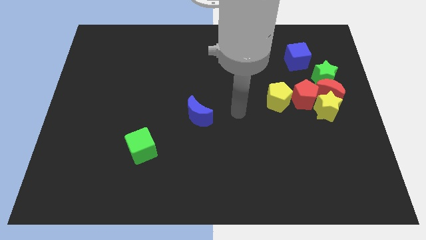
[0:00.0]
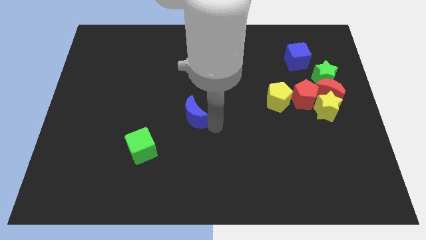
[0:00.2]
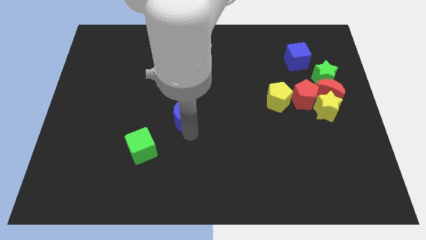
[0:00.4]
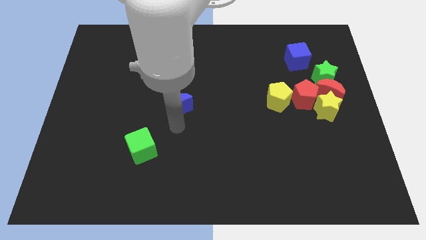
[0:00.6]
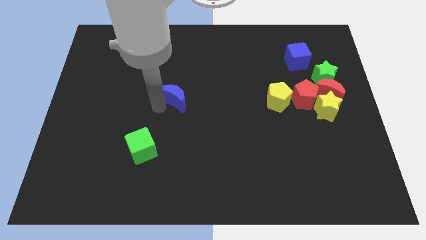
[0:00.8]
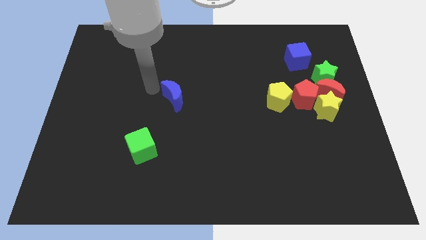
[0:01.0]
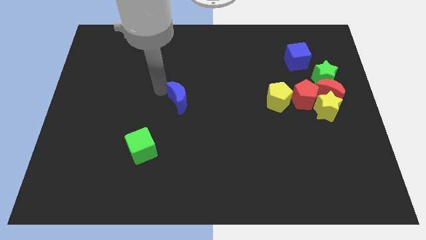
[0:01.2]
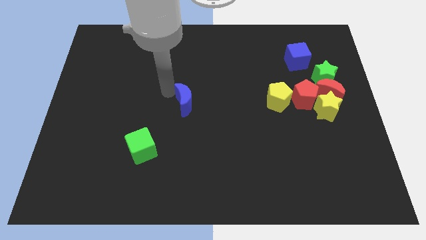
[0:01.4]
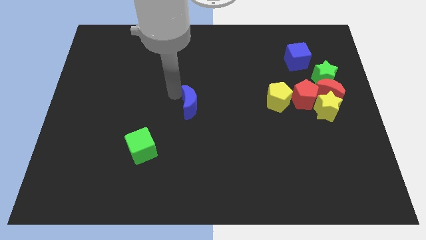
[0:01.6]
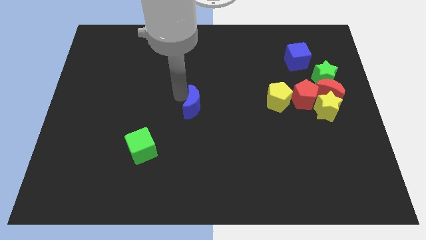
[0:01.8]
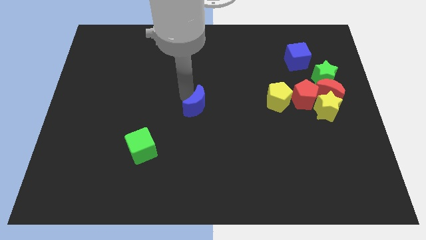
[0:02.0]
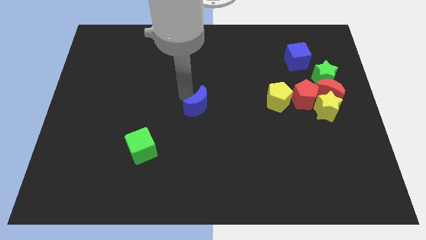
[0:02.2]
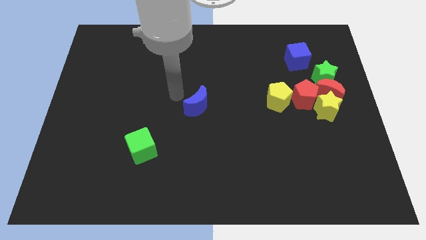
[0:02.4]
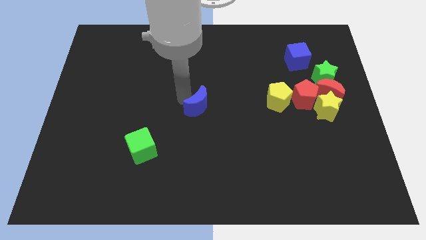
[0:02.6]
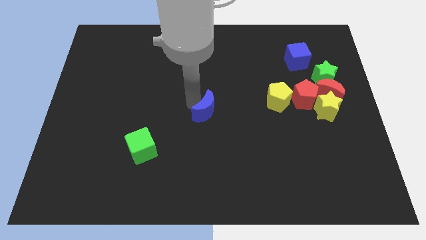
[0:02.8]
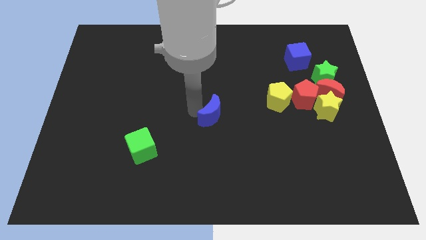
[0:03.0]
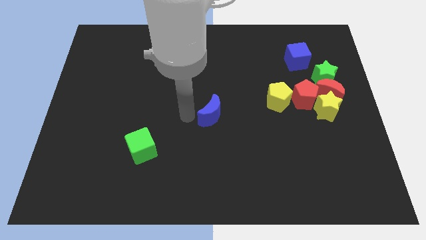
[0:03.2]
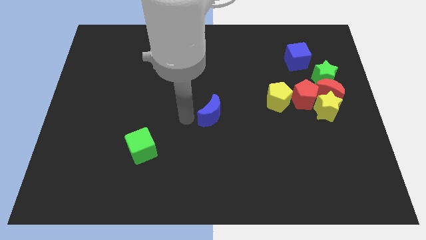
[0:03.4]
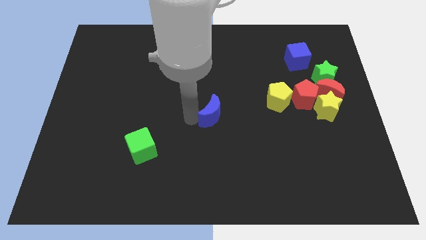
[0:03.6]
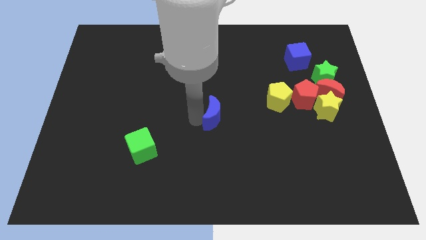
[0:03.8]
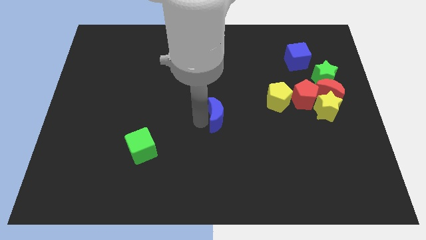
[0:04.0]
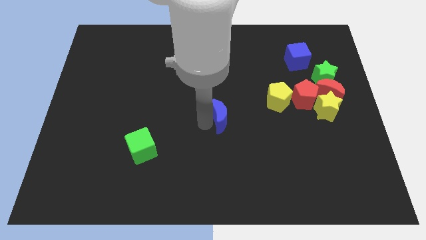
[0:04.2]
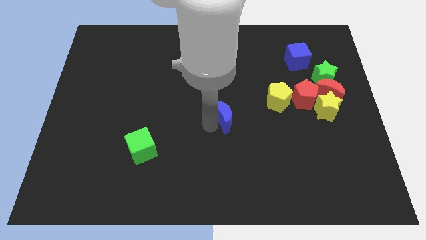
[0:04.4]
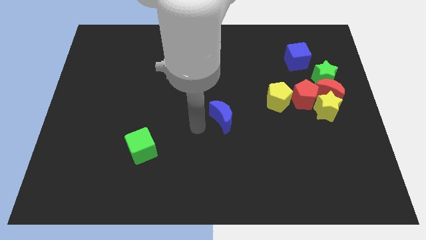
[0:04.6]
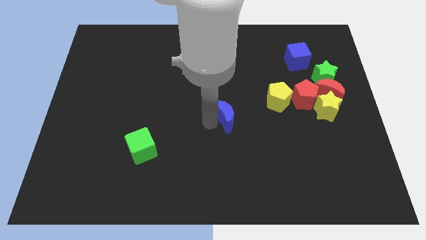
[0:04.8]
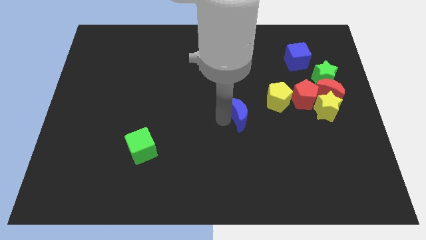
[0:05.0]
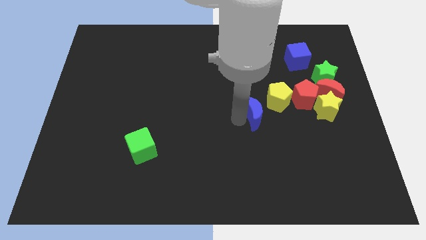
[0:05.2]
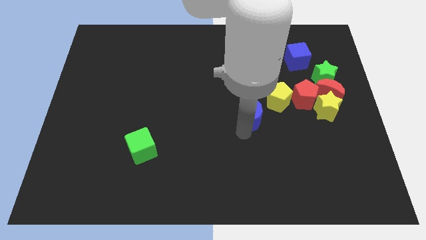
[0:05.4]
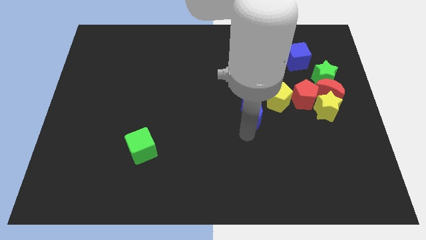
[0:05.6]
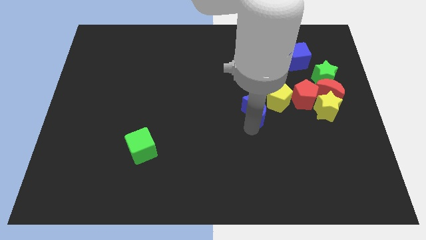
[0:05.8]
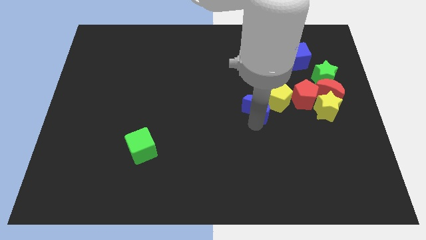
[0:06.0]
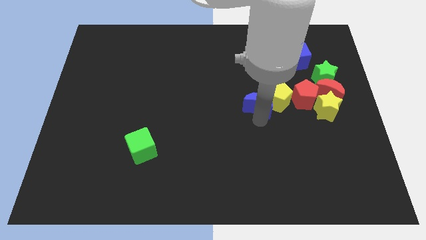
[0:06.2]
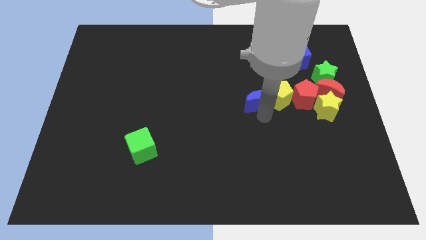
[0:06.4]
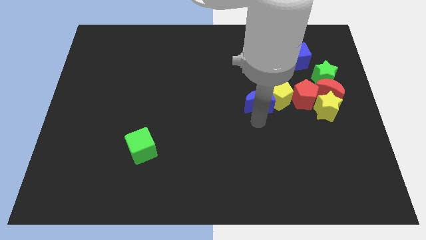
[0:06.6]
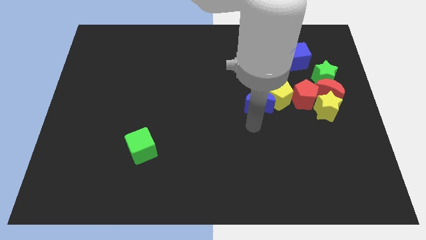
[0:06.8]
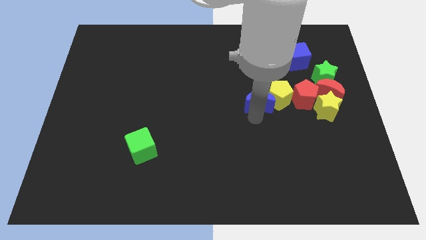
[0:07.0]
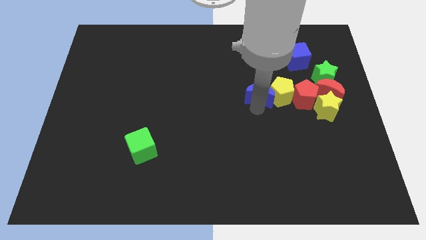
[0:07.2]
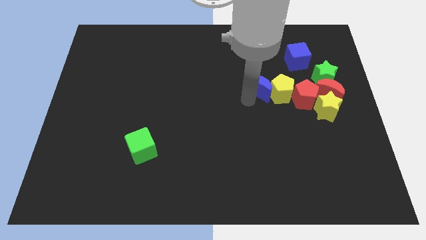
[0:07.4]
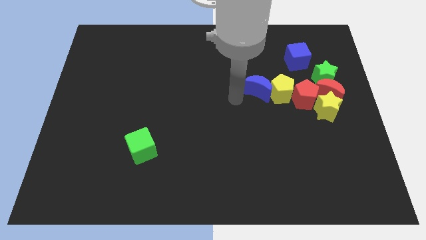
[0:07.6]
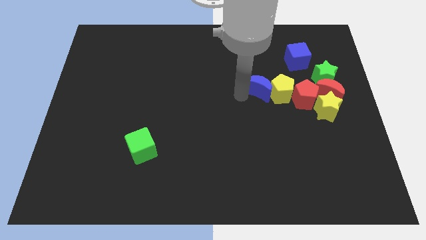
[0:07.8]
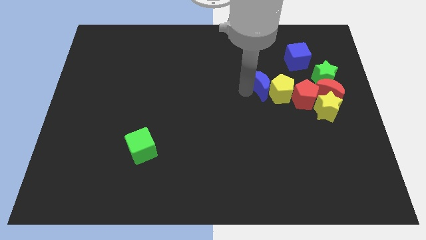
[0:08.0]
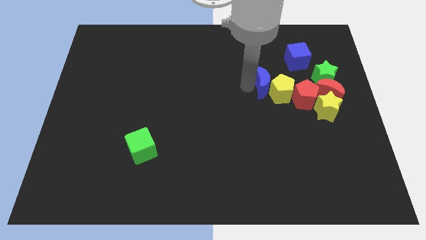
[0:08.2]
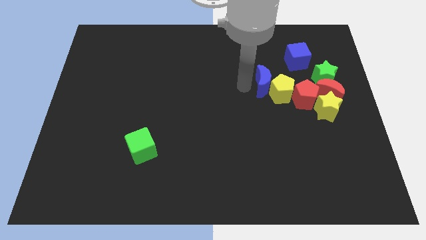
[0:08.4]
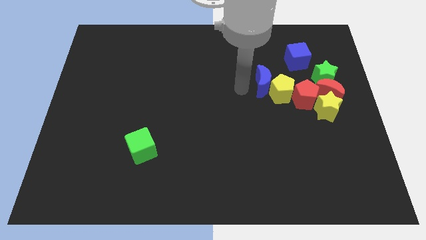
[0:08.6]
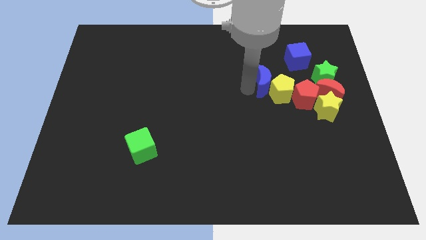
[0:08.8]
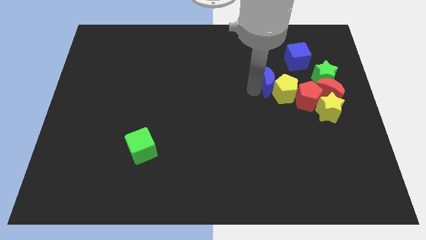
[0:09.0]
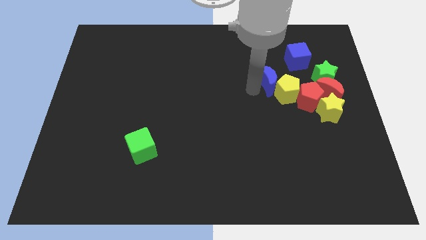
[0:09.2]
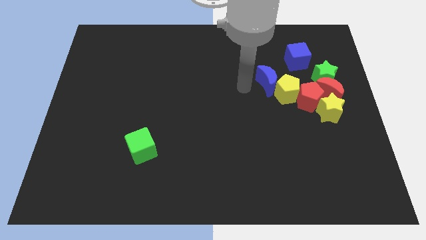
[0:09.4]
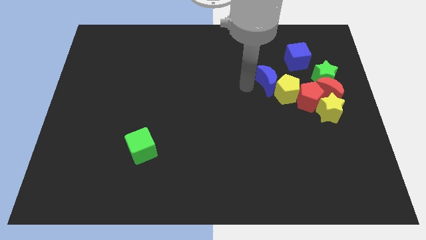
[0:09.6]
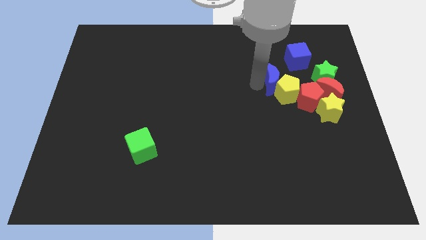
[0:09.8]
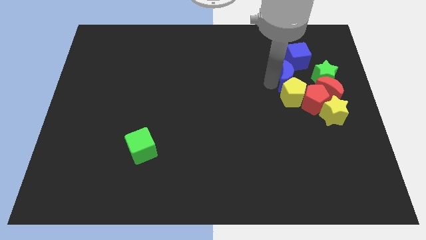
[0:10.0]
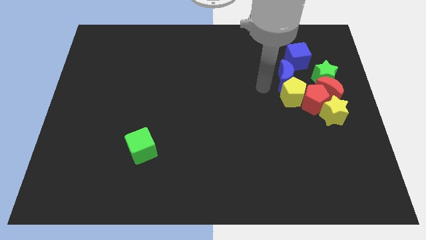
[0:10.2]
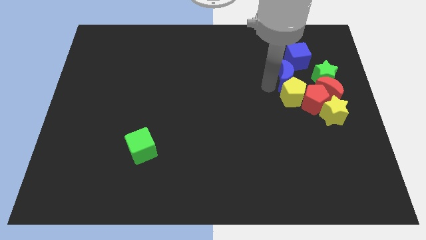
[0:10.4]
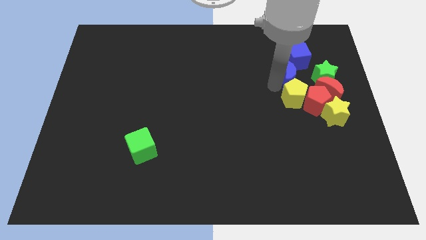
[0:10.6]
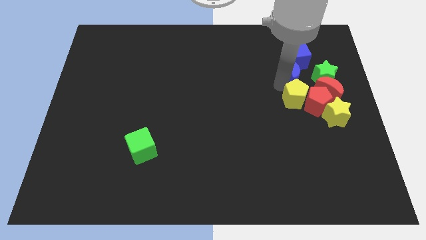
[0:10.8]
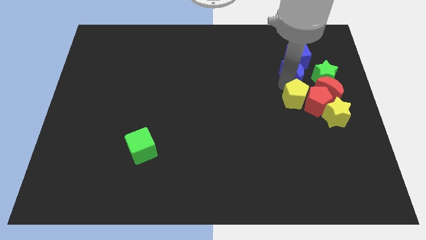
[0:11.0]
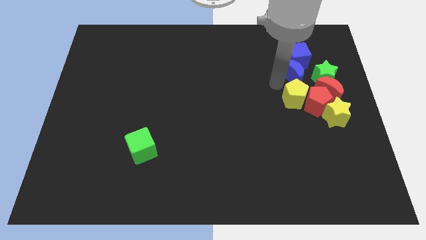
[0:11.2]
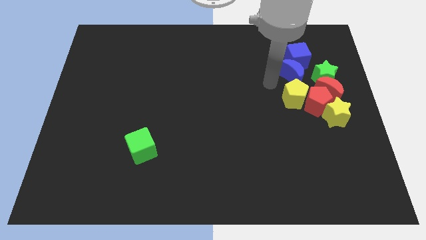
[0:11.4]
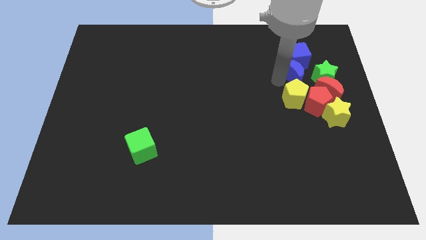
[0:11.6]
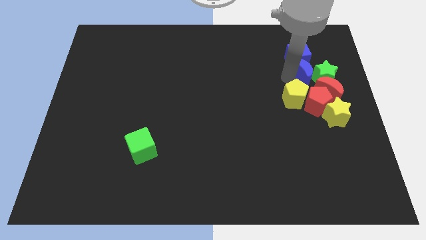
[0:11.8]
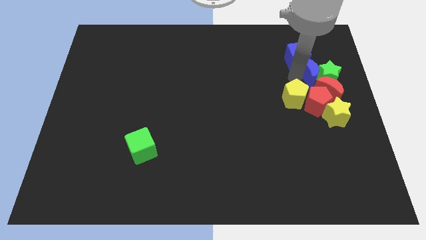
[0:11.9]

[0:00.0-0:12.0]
move the blue moon above the yellow star

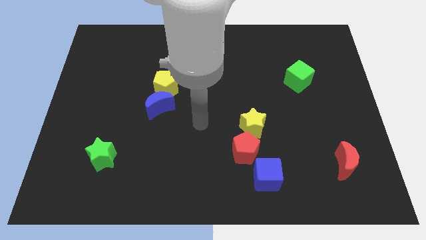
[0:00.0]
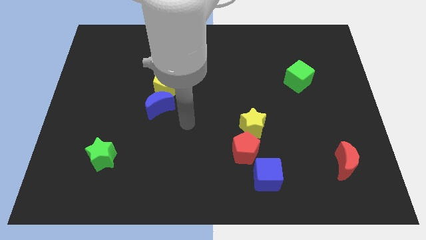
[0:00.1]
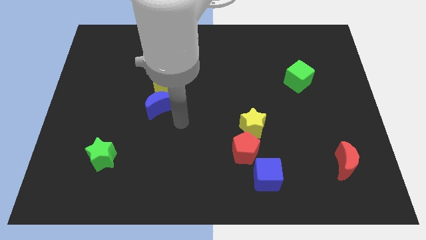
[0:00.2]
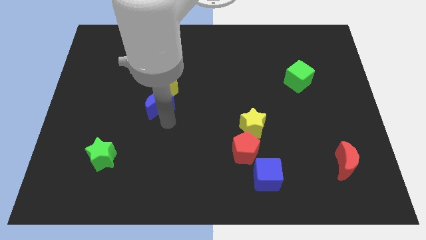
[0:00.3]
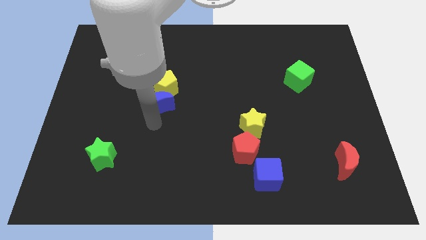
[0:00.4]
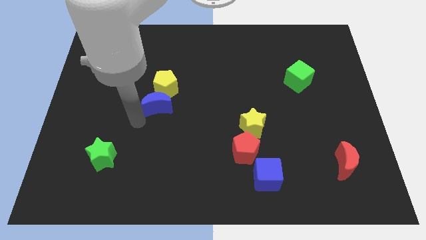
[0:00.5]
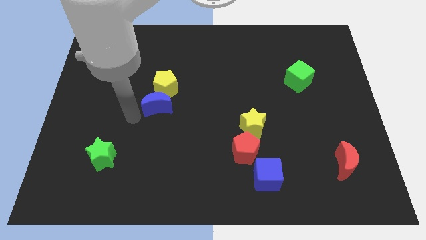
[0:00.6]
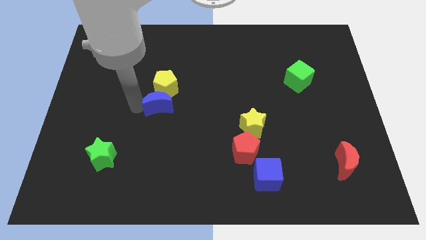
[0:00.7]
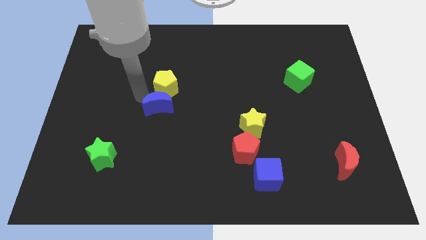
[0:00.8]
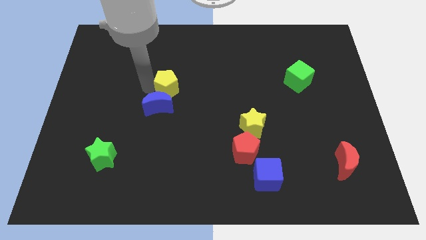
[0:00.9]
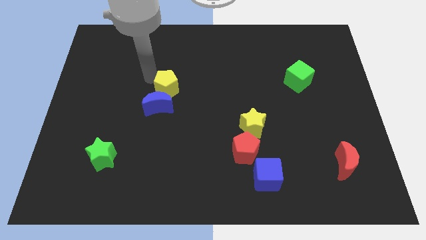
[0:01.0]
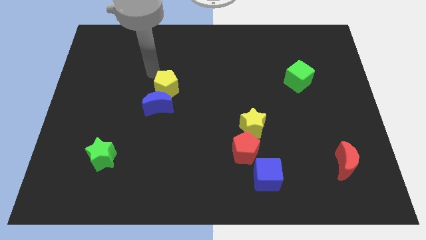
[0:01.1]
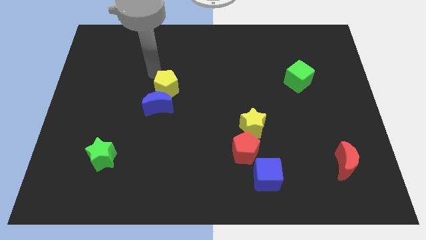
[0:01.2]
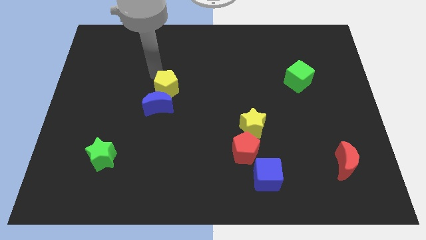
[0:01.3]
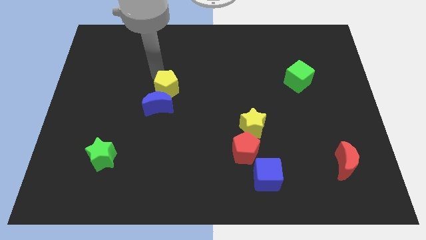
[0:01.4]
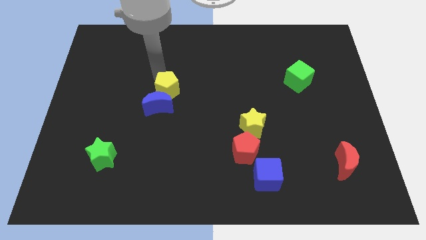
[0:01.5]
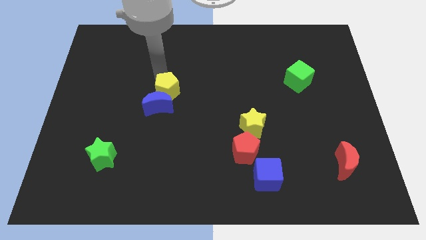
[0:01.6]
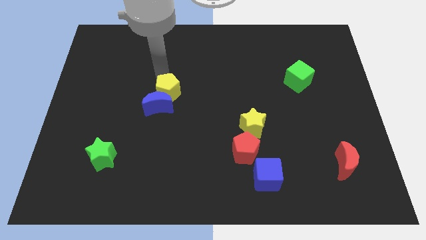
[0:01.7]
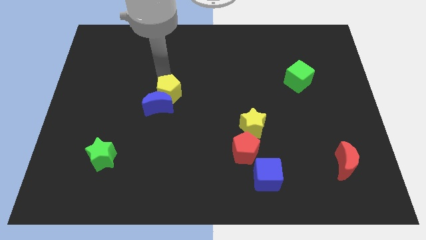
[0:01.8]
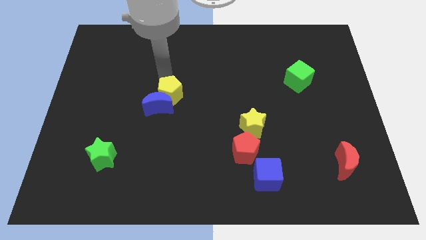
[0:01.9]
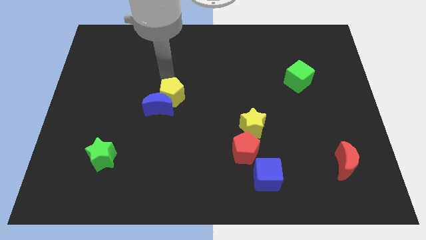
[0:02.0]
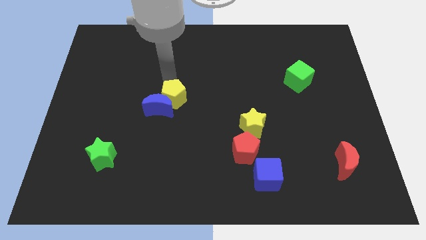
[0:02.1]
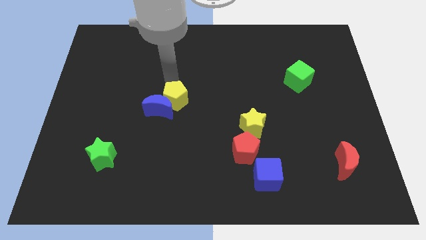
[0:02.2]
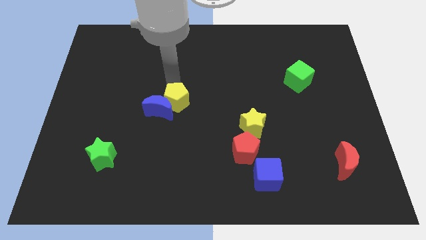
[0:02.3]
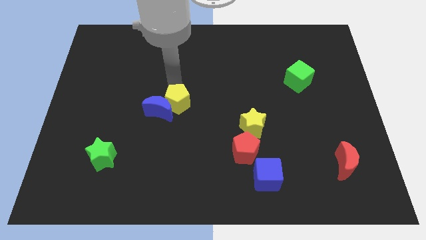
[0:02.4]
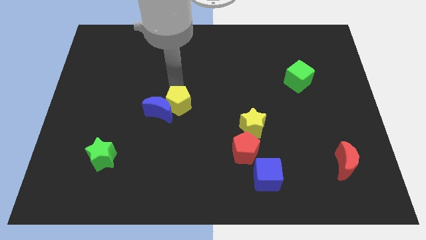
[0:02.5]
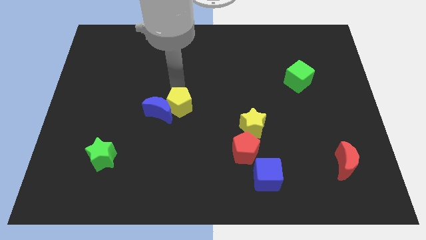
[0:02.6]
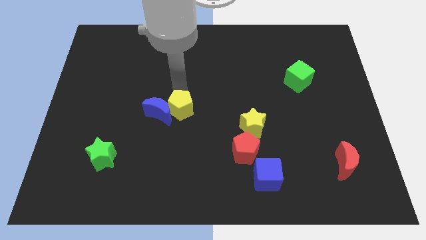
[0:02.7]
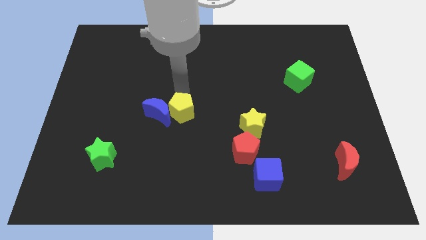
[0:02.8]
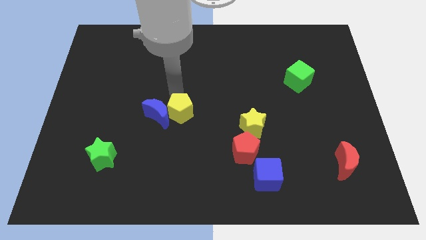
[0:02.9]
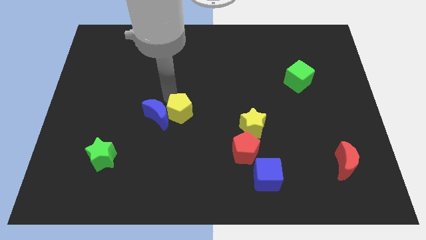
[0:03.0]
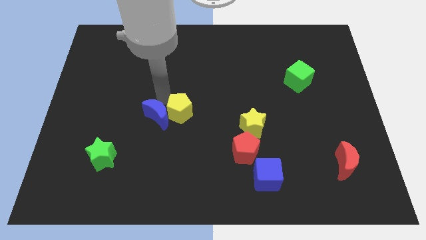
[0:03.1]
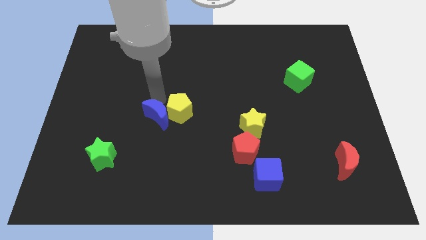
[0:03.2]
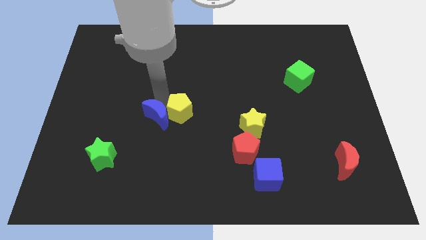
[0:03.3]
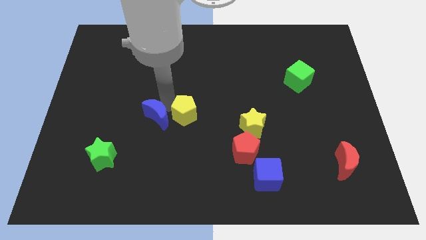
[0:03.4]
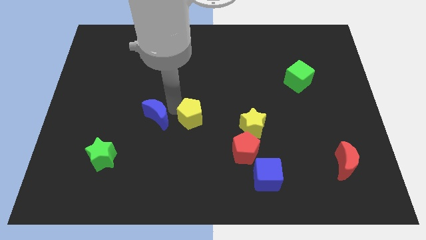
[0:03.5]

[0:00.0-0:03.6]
push the yellow pentagon left of the yellow star
